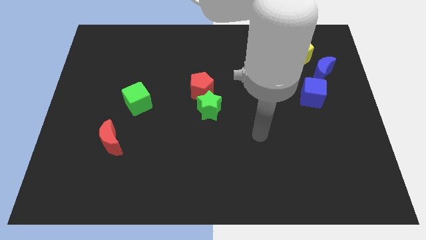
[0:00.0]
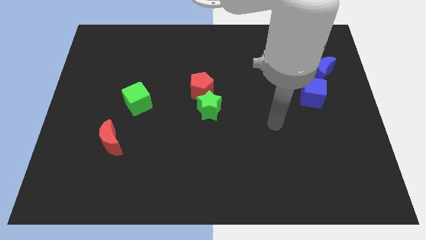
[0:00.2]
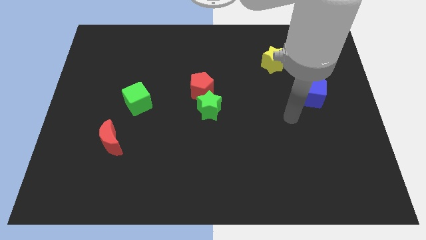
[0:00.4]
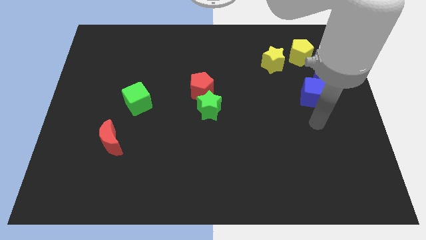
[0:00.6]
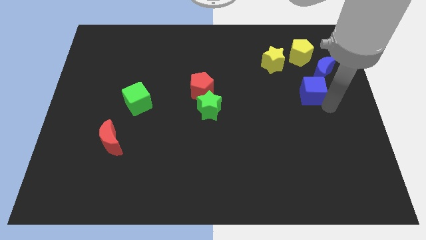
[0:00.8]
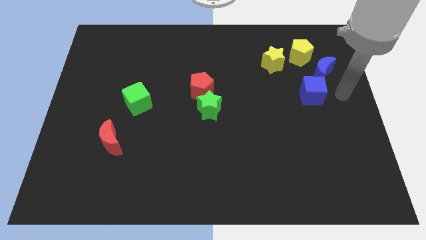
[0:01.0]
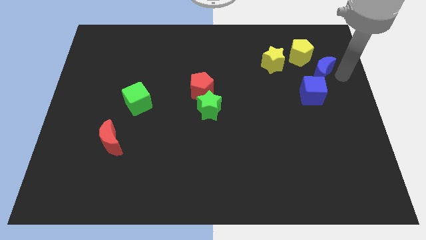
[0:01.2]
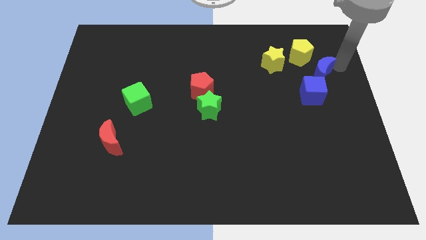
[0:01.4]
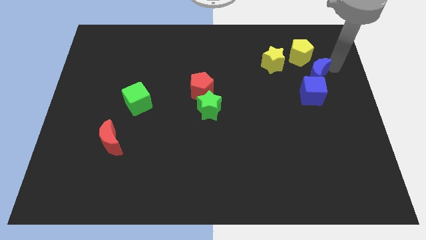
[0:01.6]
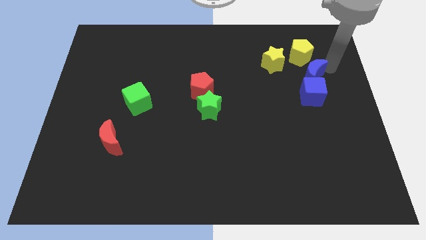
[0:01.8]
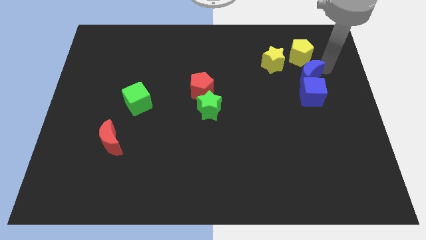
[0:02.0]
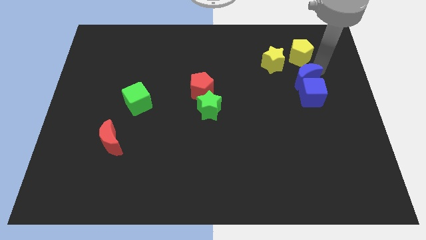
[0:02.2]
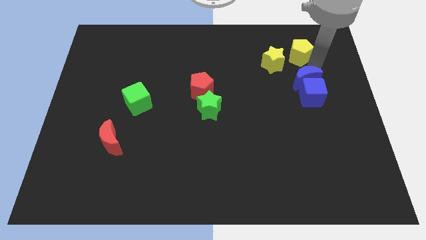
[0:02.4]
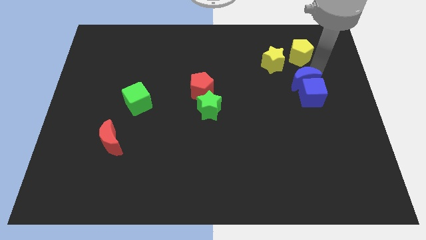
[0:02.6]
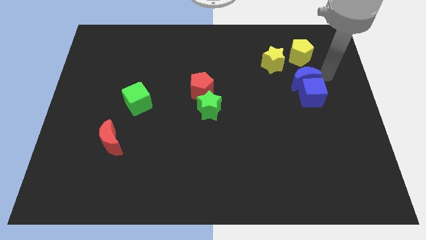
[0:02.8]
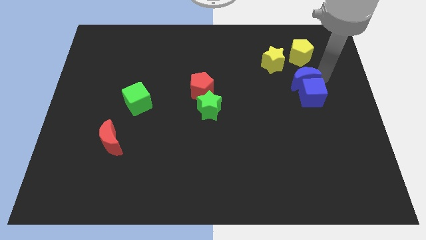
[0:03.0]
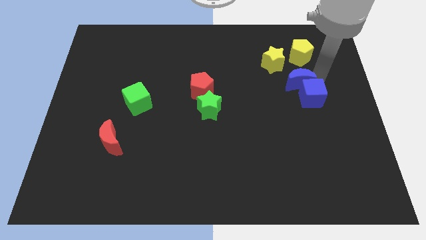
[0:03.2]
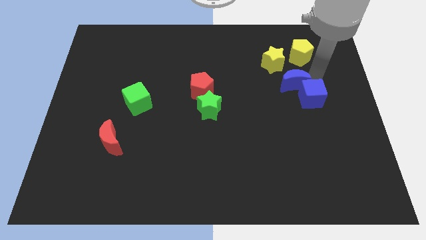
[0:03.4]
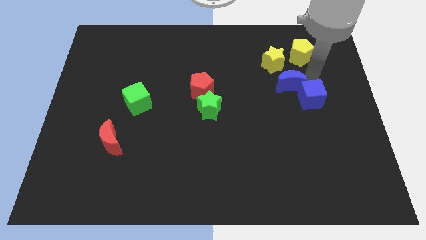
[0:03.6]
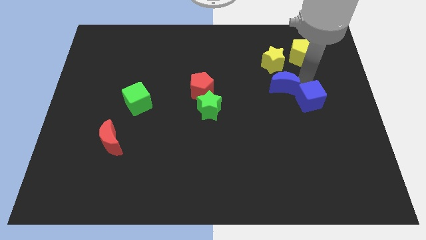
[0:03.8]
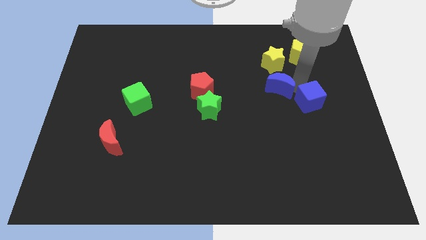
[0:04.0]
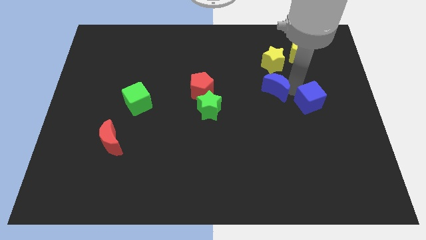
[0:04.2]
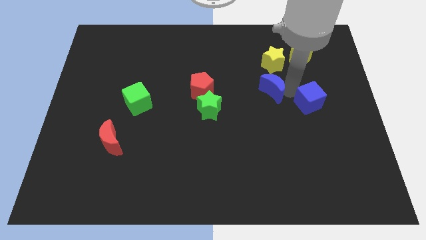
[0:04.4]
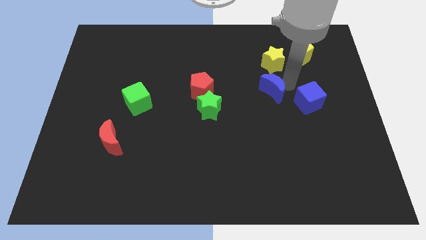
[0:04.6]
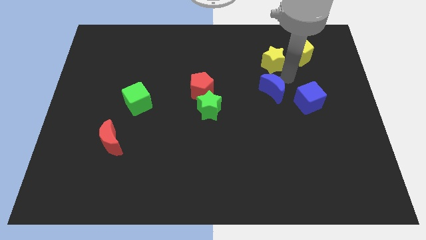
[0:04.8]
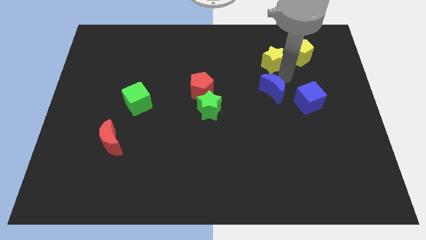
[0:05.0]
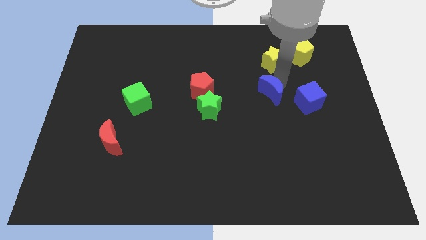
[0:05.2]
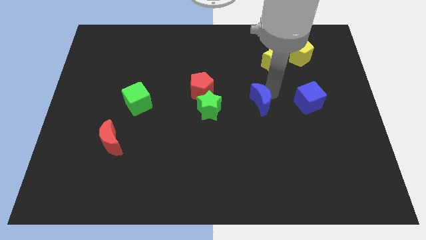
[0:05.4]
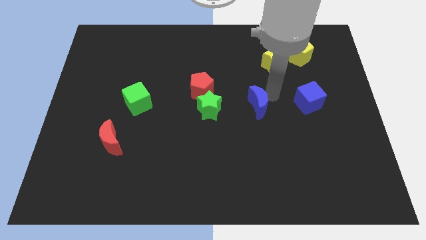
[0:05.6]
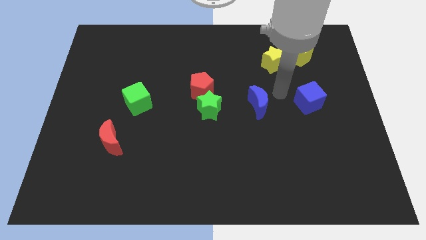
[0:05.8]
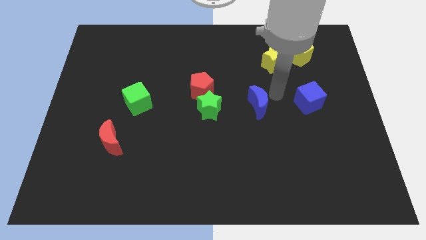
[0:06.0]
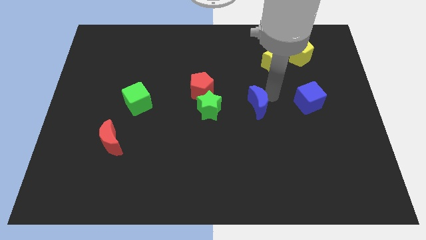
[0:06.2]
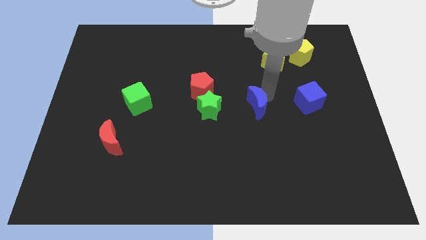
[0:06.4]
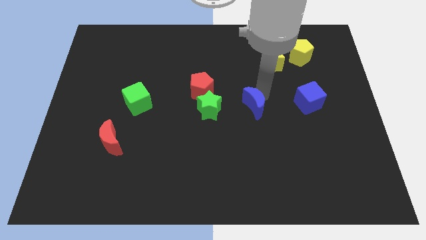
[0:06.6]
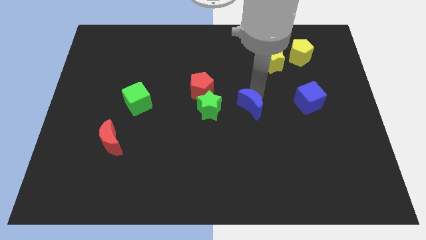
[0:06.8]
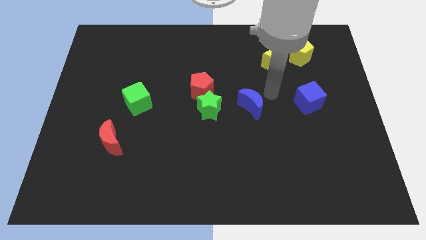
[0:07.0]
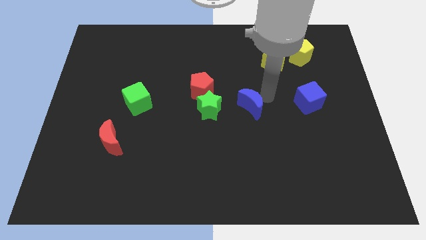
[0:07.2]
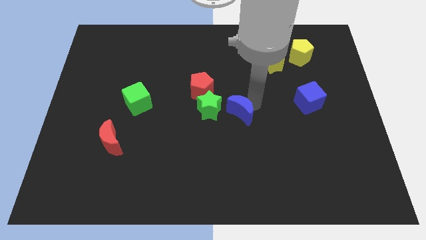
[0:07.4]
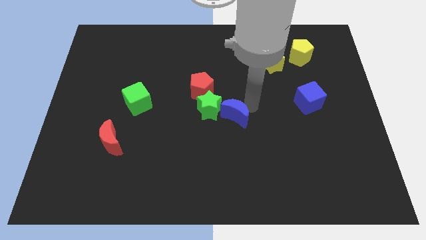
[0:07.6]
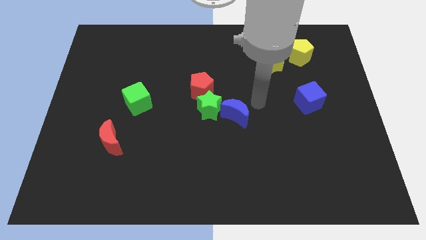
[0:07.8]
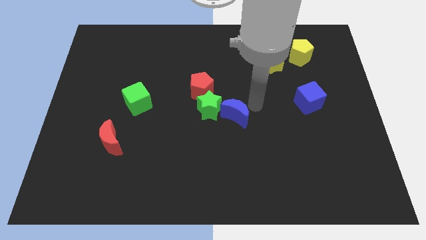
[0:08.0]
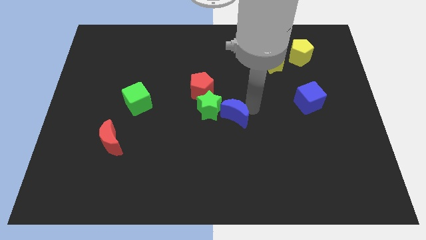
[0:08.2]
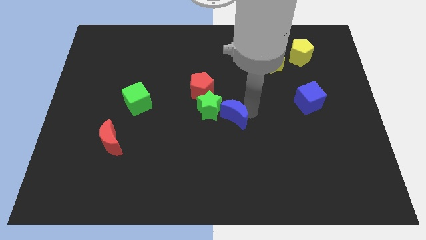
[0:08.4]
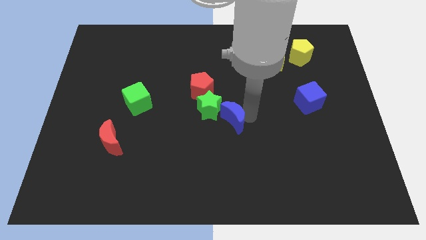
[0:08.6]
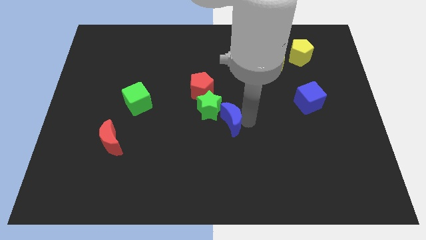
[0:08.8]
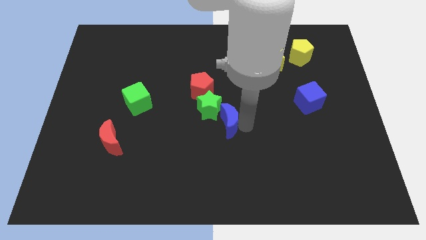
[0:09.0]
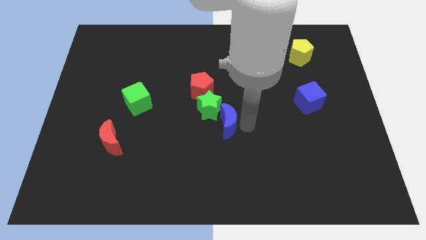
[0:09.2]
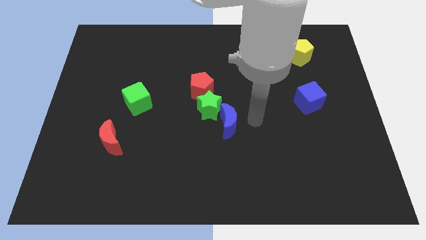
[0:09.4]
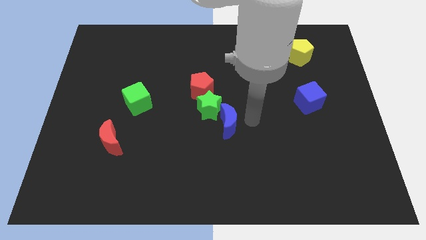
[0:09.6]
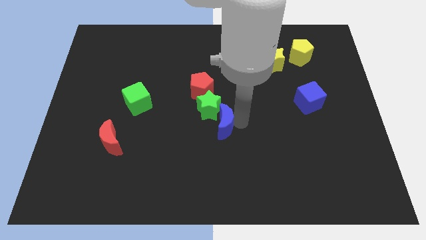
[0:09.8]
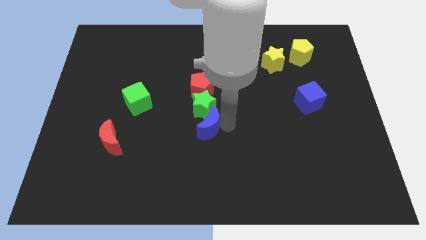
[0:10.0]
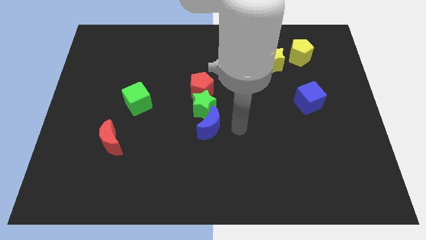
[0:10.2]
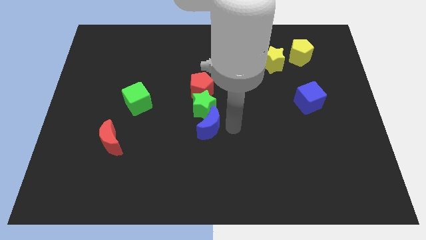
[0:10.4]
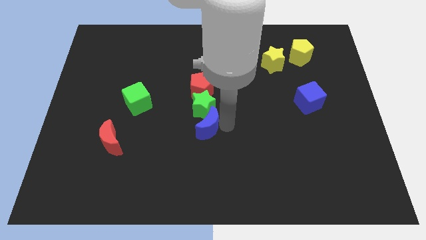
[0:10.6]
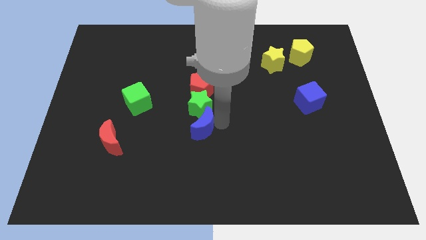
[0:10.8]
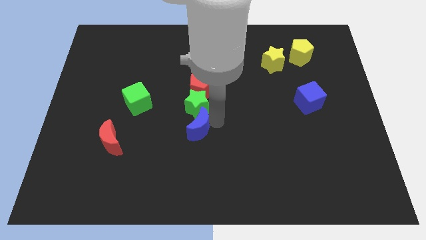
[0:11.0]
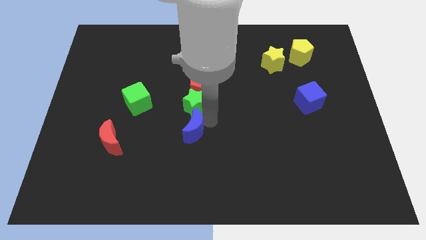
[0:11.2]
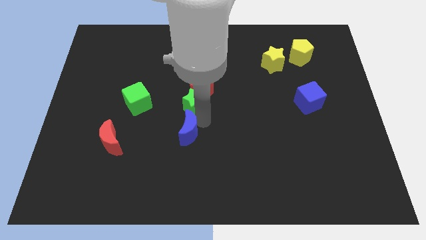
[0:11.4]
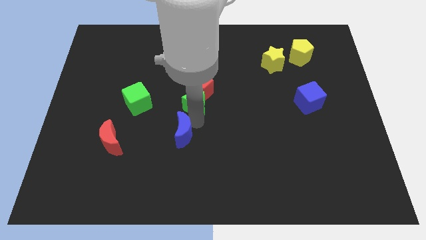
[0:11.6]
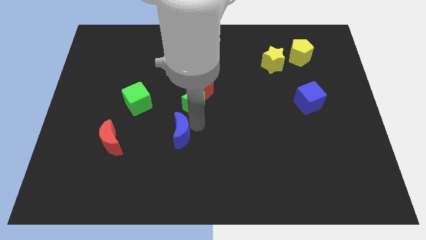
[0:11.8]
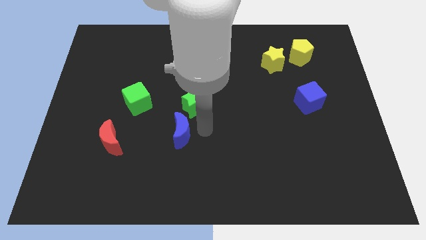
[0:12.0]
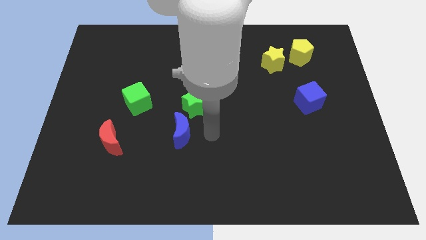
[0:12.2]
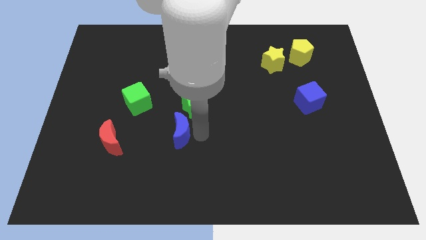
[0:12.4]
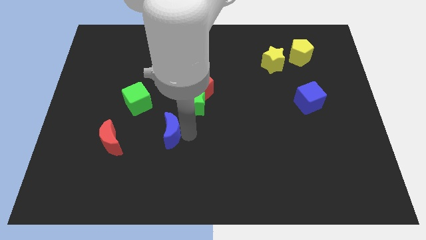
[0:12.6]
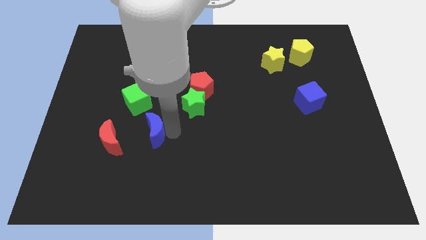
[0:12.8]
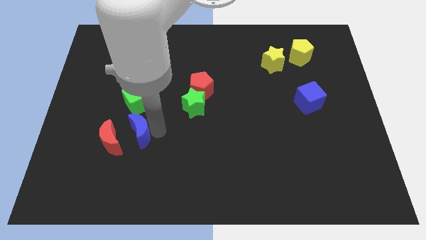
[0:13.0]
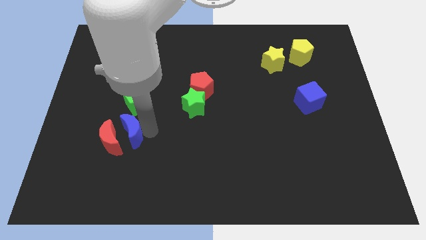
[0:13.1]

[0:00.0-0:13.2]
push the blue moon close to the red moon
